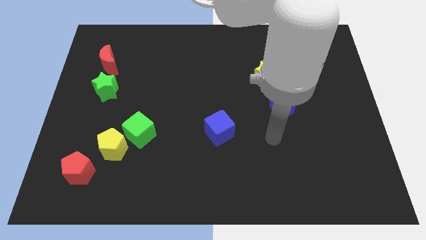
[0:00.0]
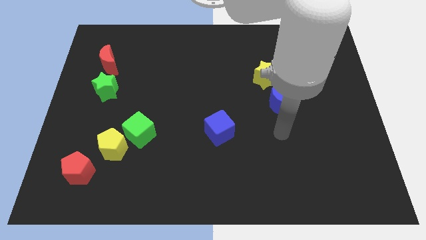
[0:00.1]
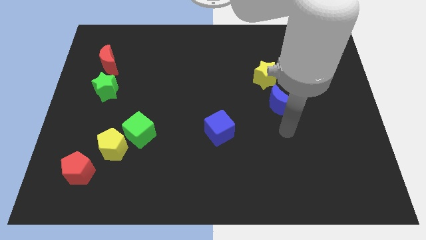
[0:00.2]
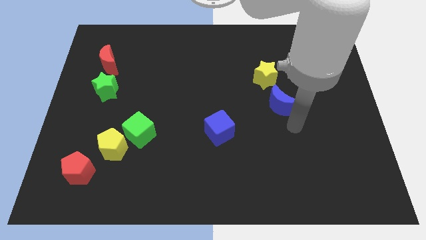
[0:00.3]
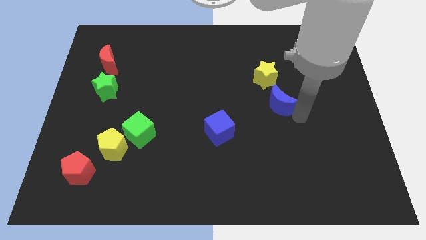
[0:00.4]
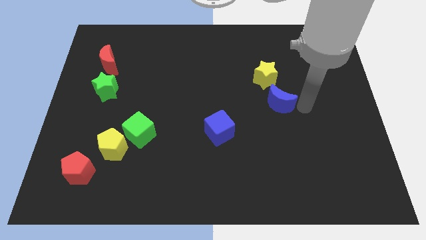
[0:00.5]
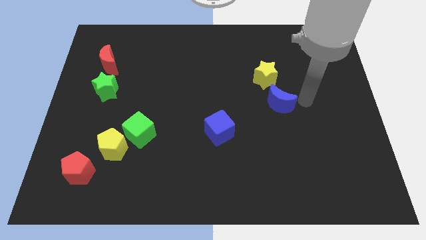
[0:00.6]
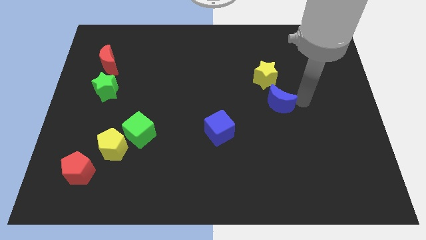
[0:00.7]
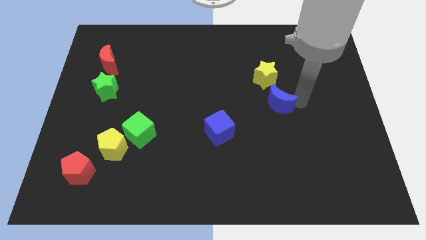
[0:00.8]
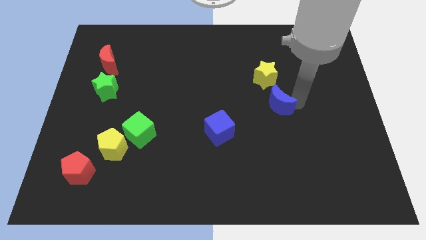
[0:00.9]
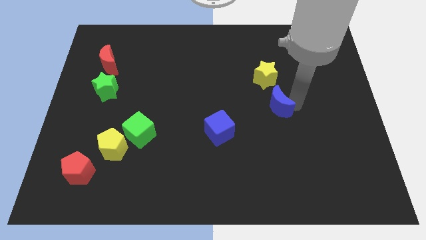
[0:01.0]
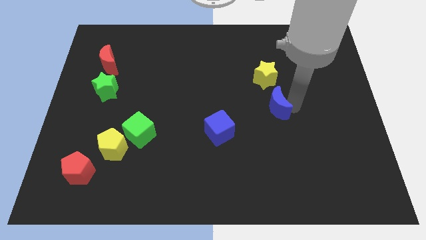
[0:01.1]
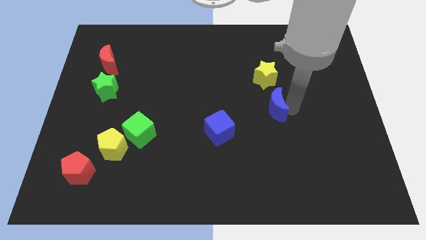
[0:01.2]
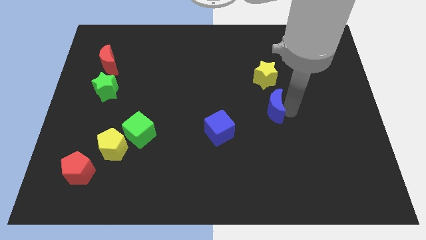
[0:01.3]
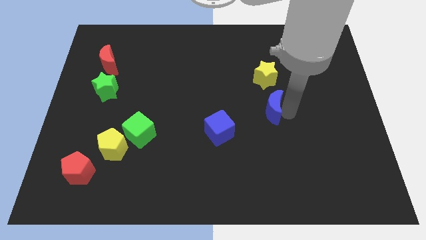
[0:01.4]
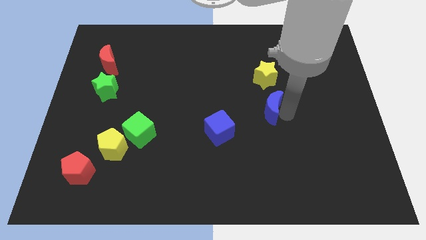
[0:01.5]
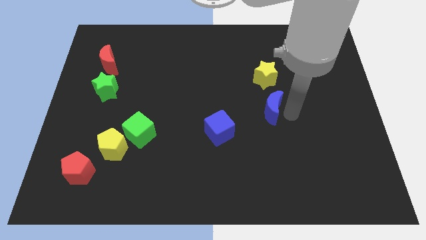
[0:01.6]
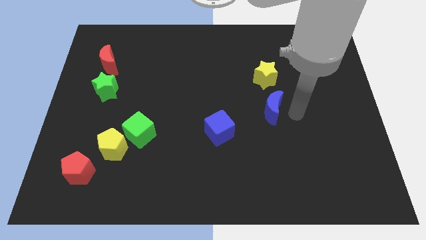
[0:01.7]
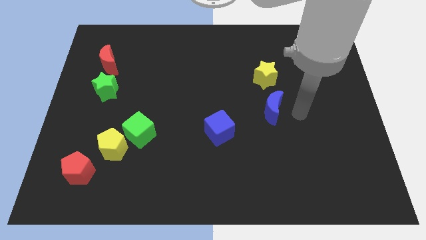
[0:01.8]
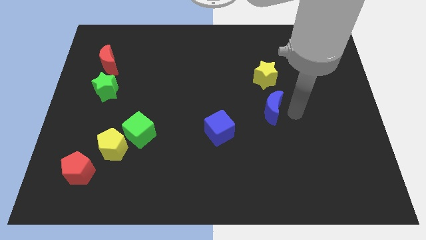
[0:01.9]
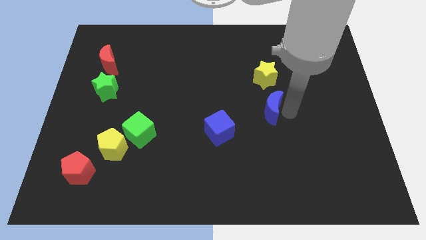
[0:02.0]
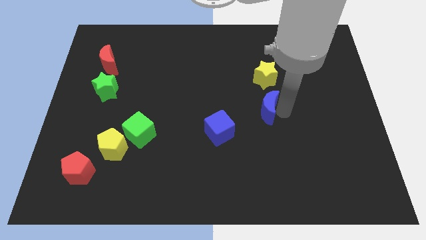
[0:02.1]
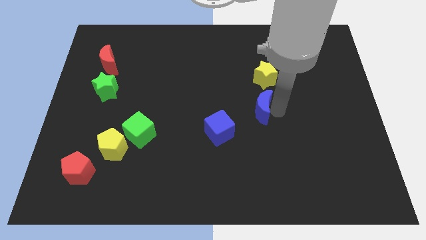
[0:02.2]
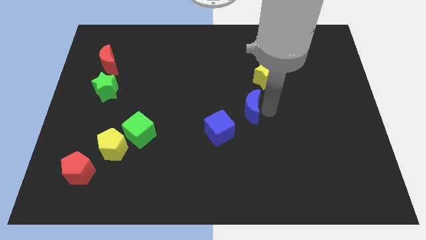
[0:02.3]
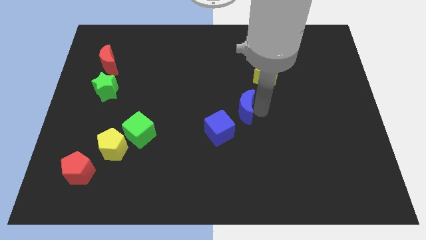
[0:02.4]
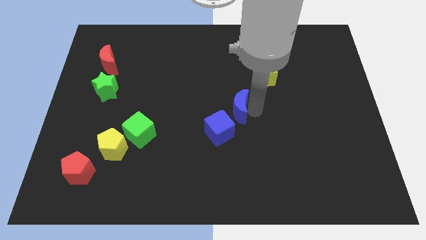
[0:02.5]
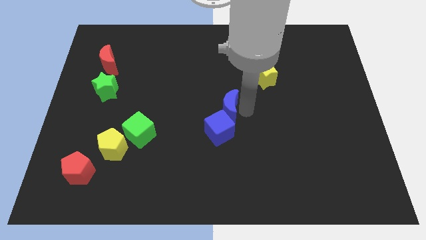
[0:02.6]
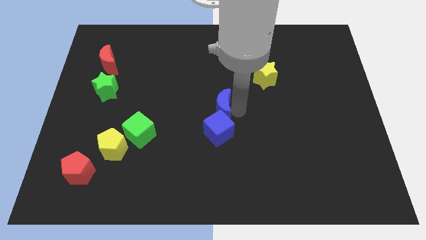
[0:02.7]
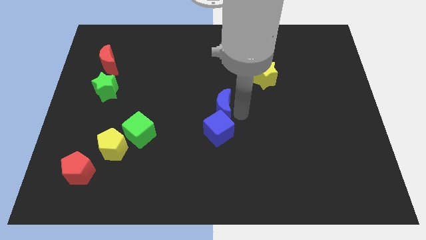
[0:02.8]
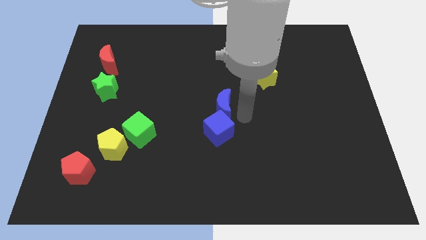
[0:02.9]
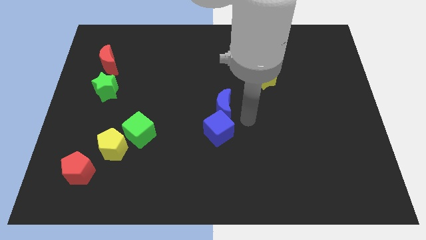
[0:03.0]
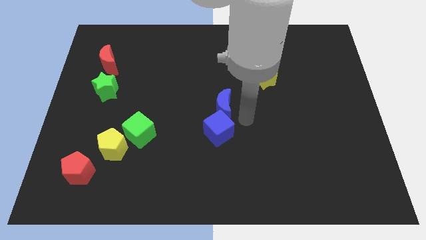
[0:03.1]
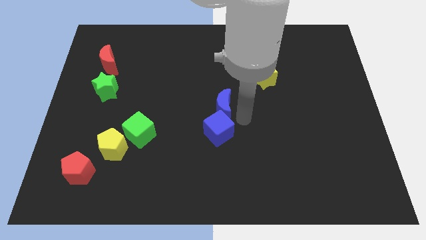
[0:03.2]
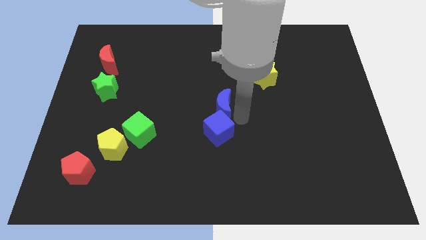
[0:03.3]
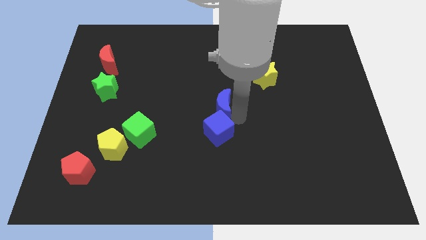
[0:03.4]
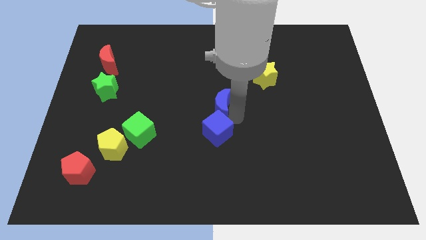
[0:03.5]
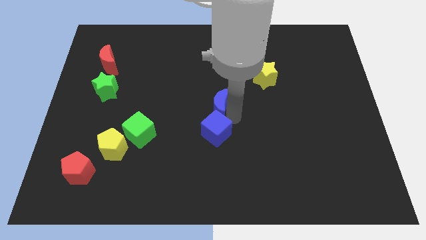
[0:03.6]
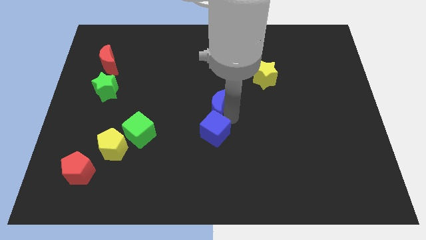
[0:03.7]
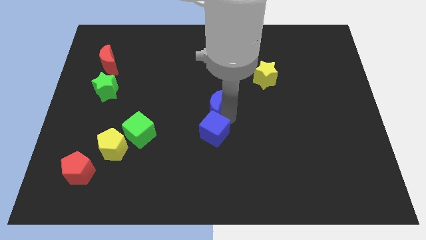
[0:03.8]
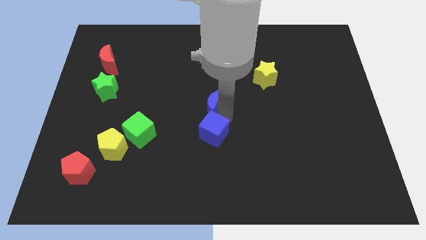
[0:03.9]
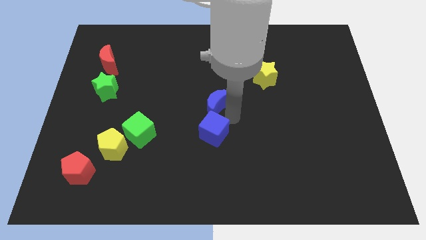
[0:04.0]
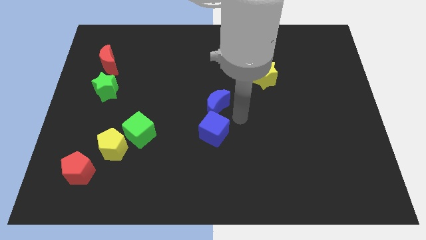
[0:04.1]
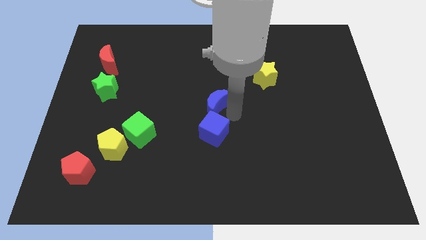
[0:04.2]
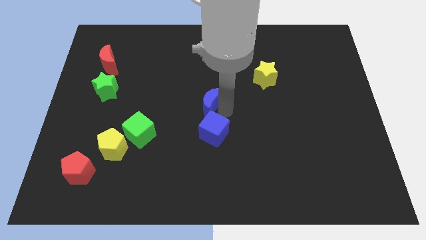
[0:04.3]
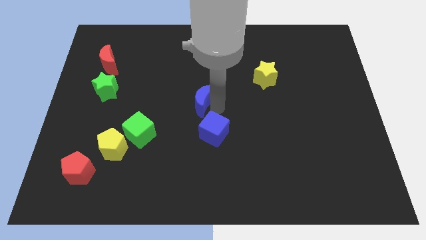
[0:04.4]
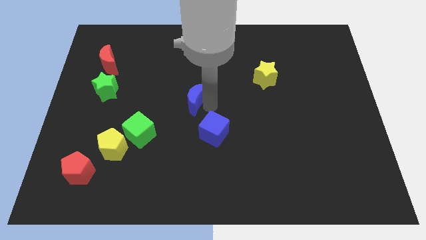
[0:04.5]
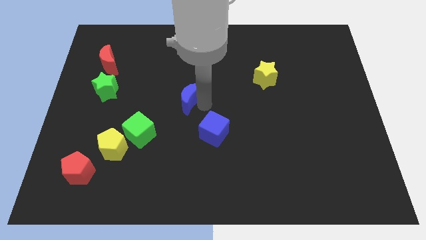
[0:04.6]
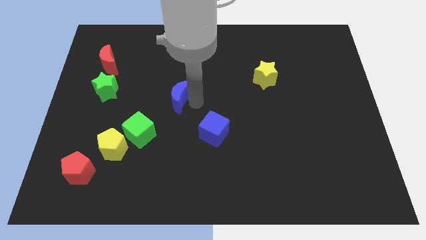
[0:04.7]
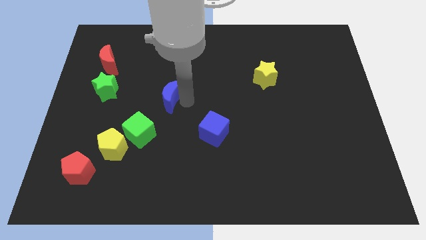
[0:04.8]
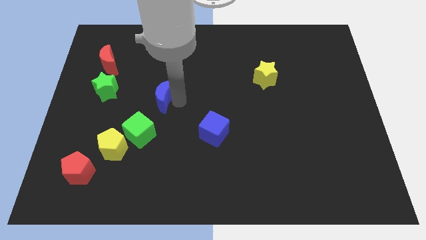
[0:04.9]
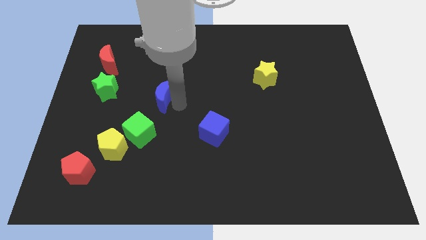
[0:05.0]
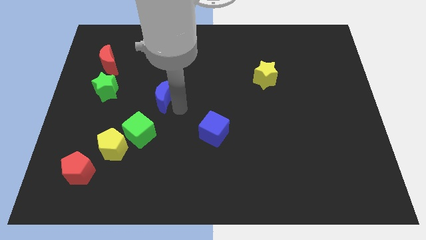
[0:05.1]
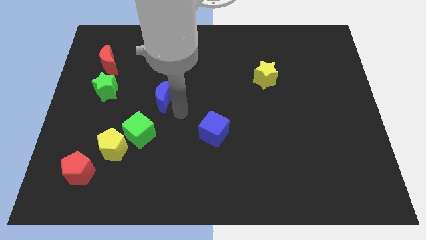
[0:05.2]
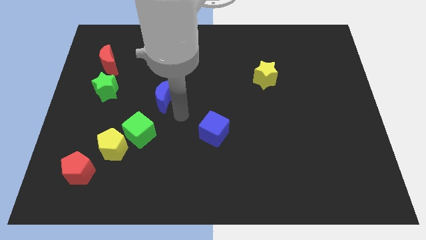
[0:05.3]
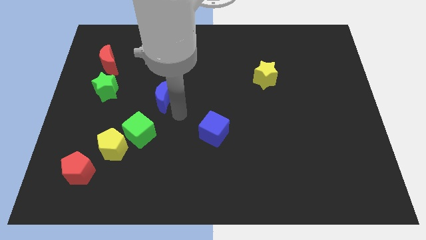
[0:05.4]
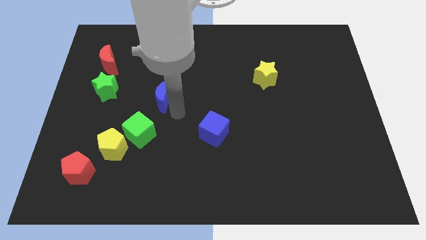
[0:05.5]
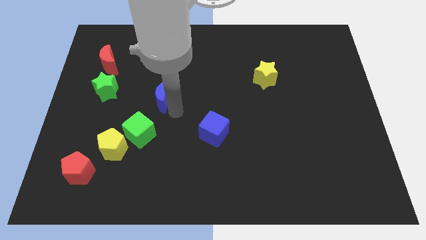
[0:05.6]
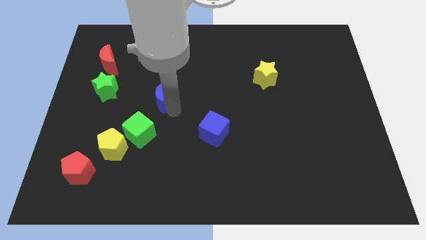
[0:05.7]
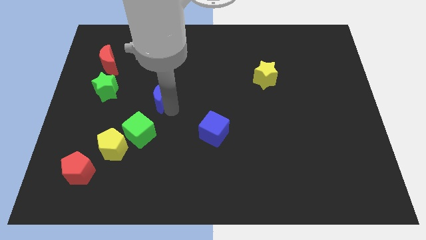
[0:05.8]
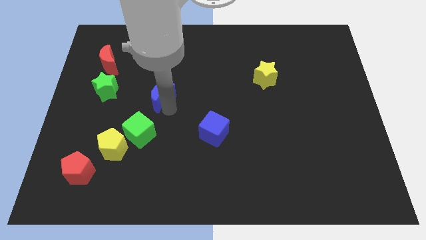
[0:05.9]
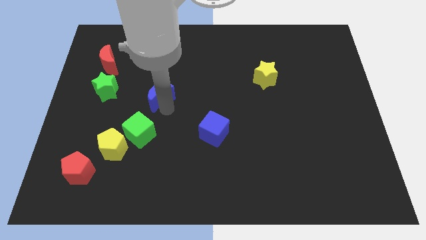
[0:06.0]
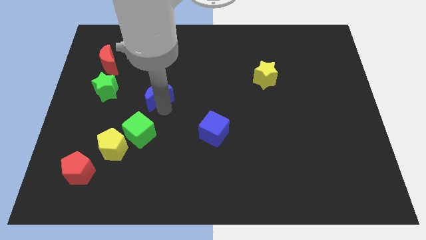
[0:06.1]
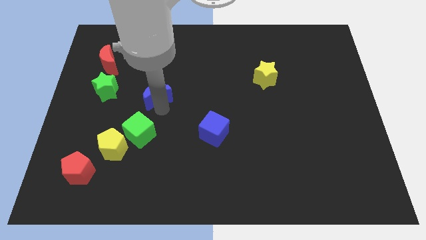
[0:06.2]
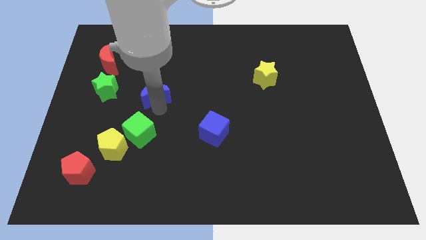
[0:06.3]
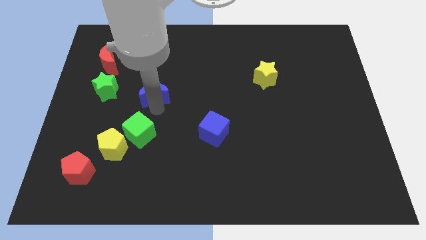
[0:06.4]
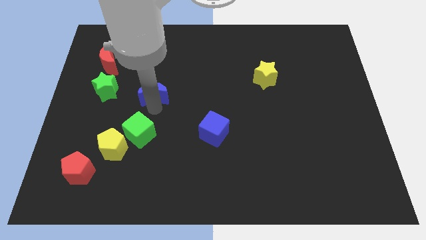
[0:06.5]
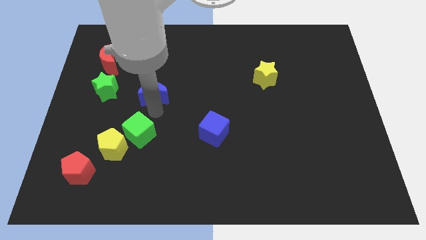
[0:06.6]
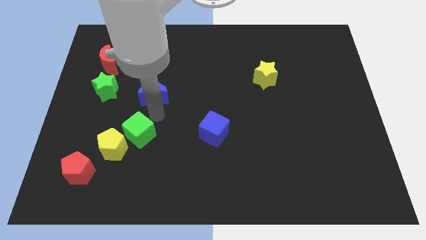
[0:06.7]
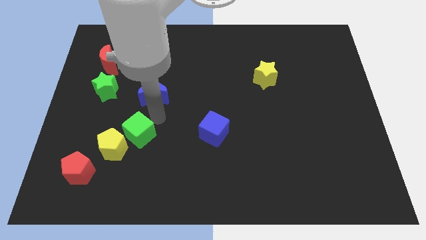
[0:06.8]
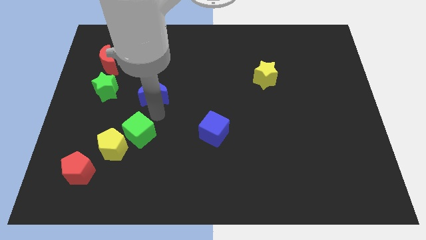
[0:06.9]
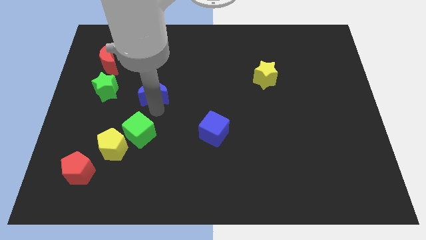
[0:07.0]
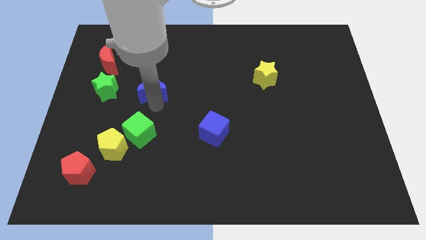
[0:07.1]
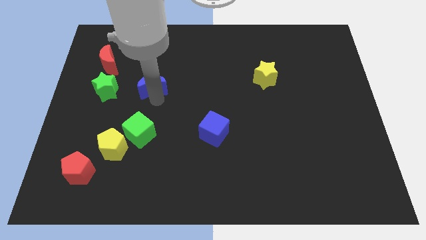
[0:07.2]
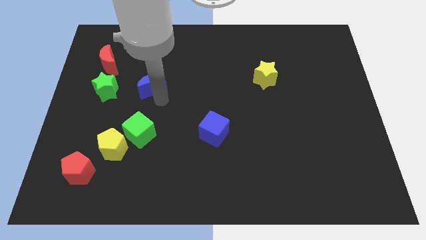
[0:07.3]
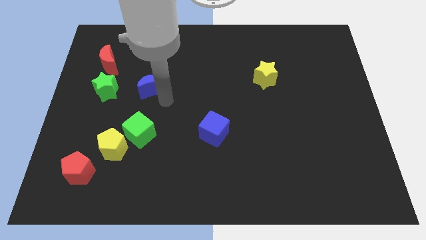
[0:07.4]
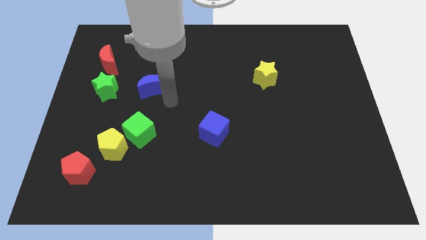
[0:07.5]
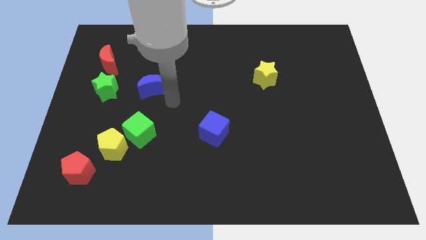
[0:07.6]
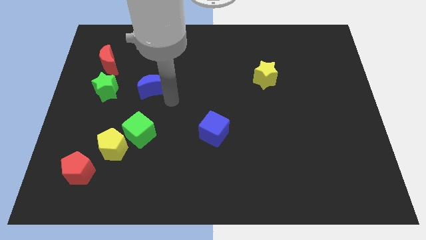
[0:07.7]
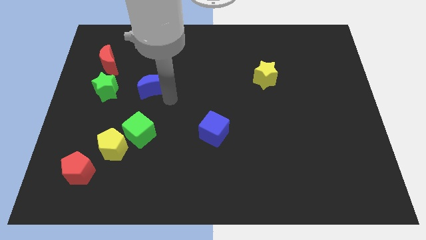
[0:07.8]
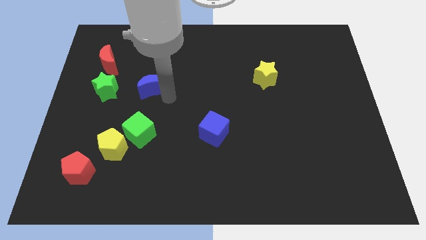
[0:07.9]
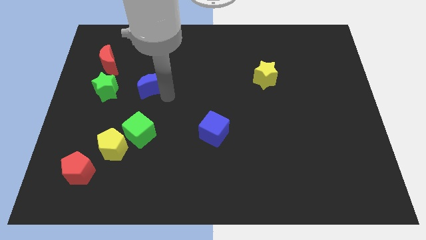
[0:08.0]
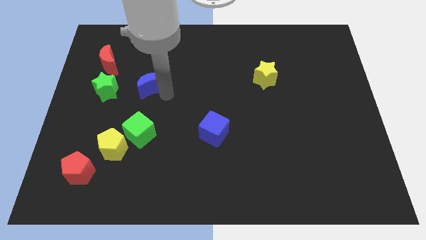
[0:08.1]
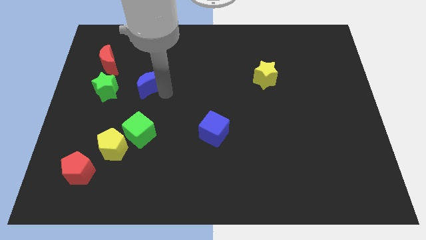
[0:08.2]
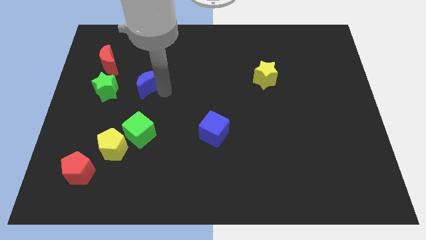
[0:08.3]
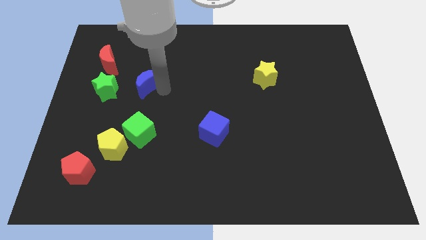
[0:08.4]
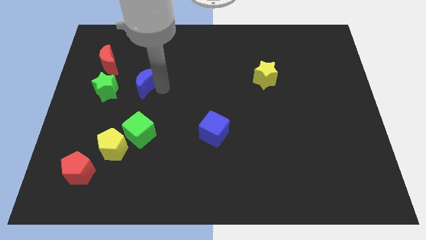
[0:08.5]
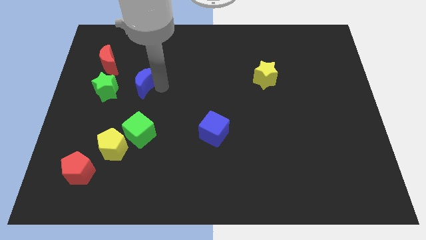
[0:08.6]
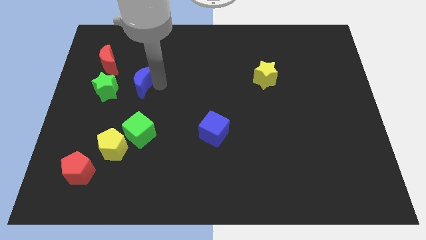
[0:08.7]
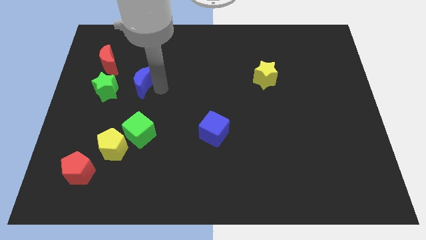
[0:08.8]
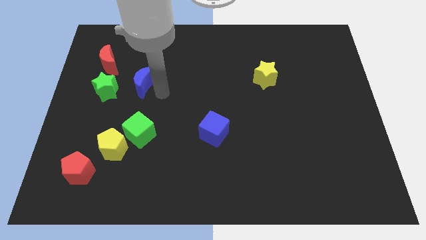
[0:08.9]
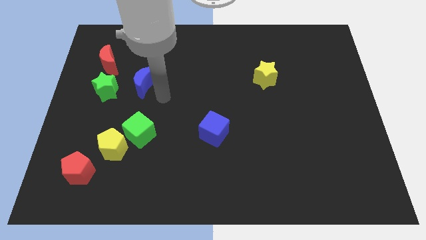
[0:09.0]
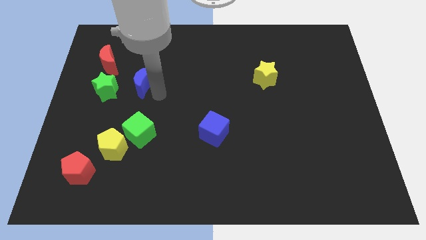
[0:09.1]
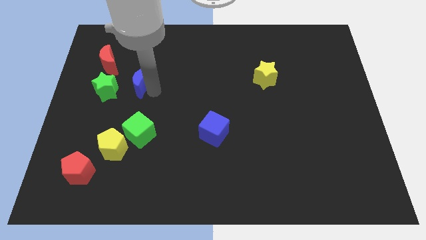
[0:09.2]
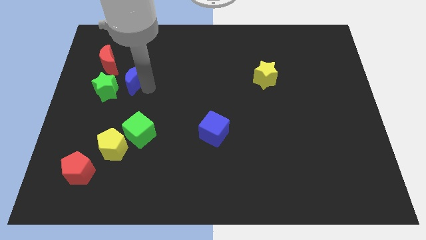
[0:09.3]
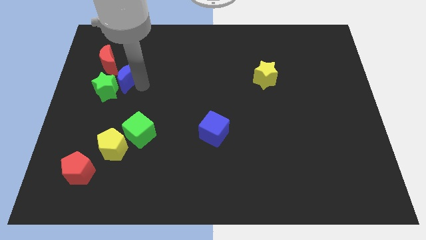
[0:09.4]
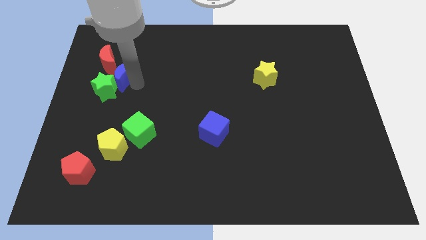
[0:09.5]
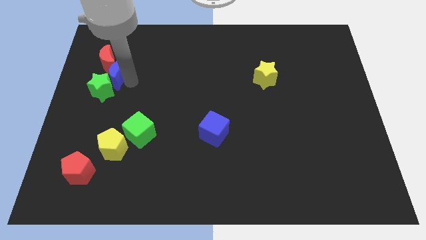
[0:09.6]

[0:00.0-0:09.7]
move the blue moon to the red moon
